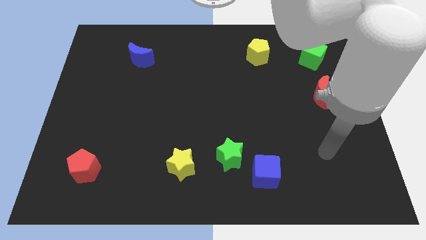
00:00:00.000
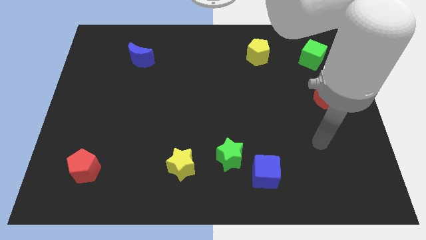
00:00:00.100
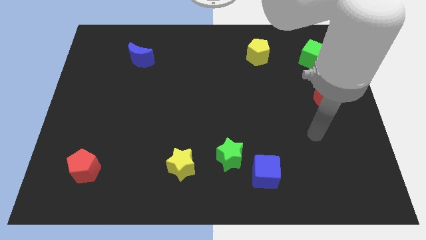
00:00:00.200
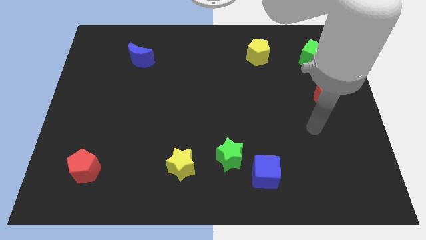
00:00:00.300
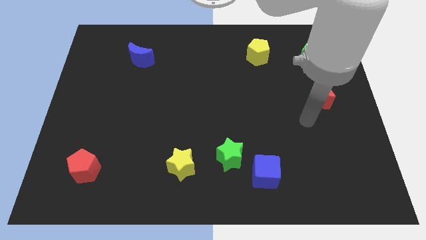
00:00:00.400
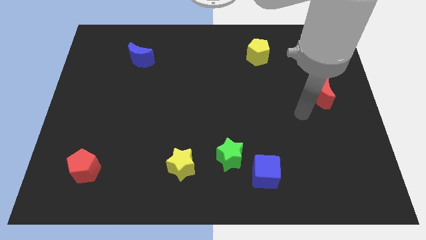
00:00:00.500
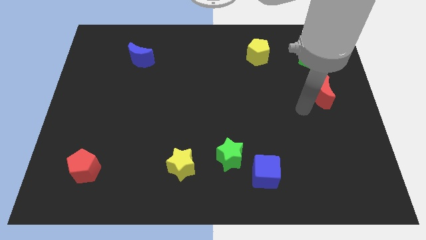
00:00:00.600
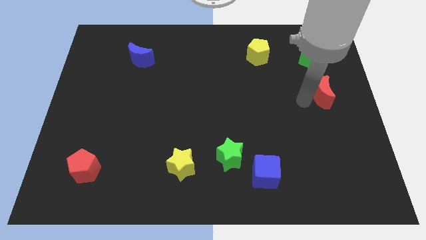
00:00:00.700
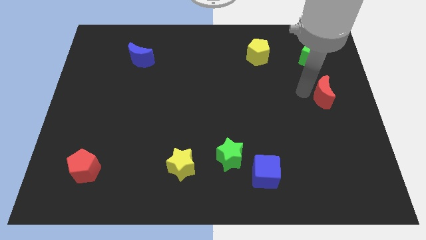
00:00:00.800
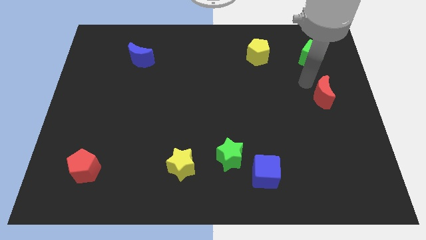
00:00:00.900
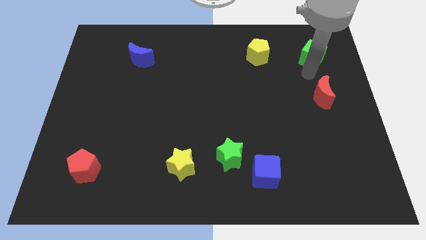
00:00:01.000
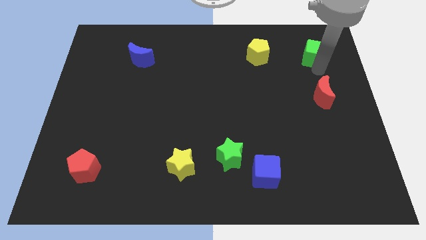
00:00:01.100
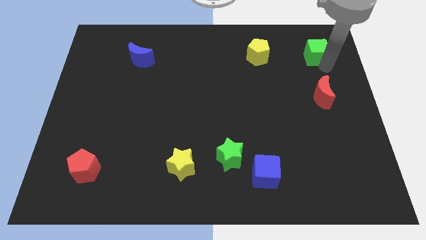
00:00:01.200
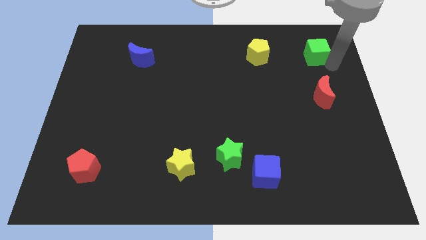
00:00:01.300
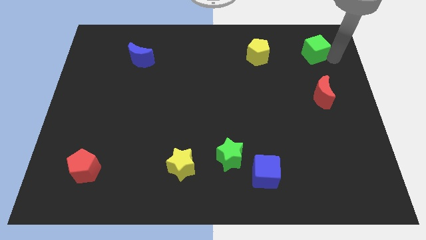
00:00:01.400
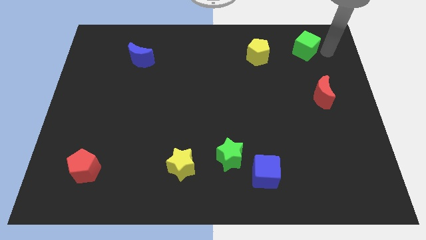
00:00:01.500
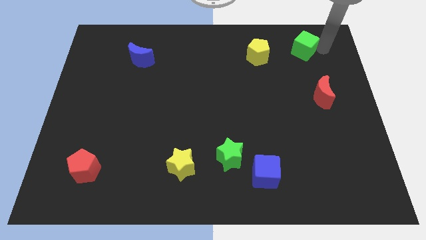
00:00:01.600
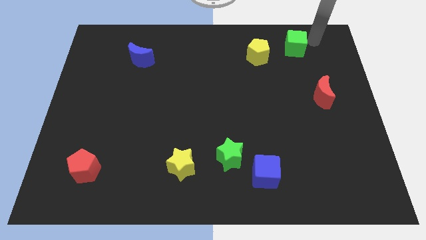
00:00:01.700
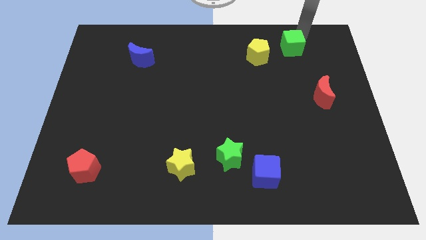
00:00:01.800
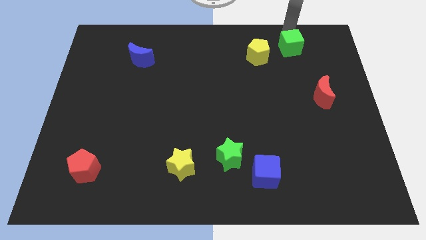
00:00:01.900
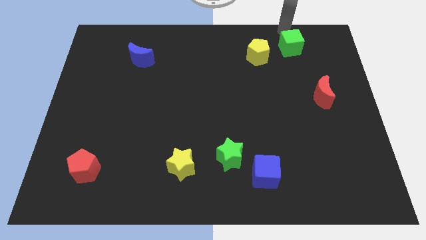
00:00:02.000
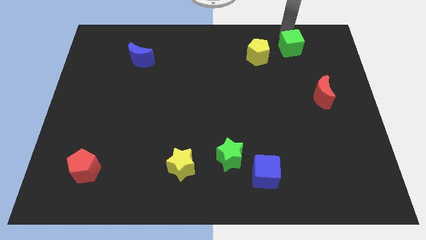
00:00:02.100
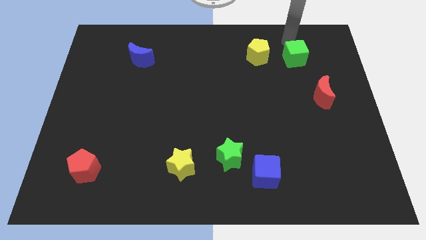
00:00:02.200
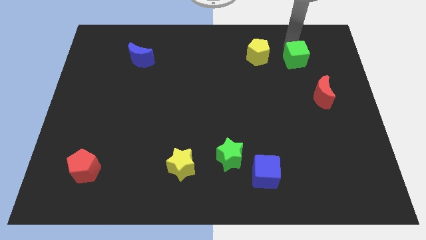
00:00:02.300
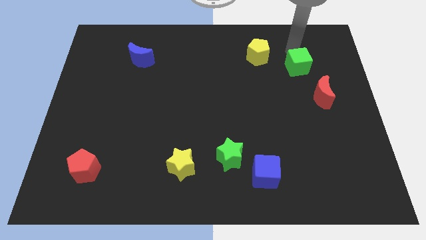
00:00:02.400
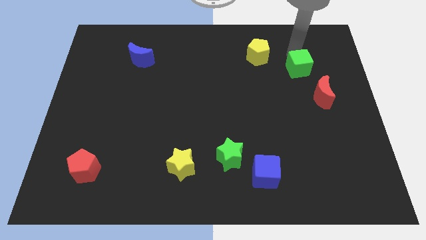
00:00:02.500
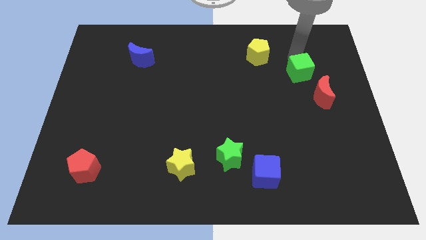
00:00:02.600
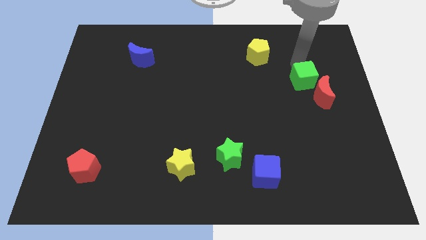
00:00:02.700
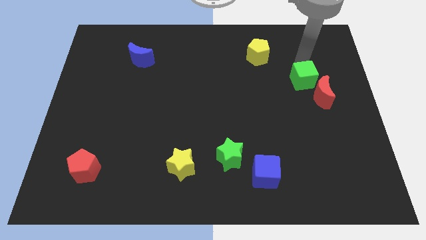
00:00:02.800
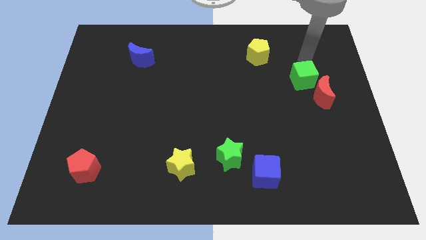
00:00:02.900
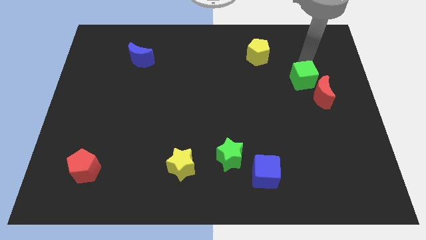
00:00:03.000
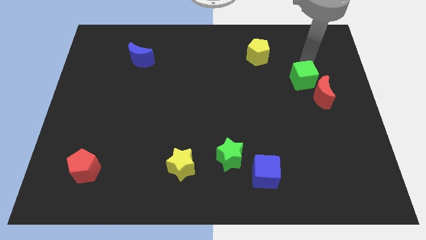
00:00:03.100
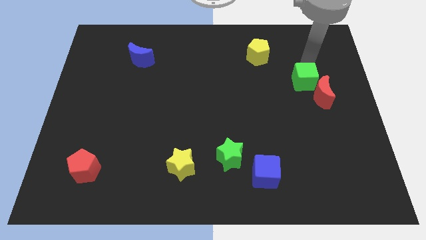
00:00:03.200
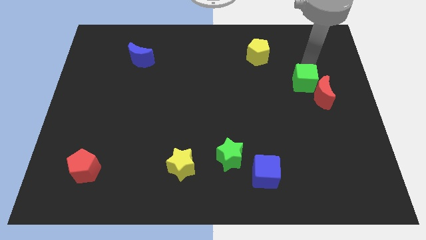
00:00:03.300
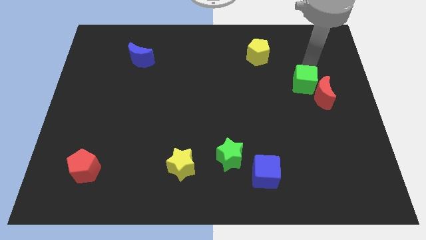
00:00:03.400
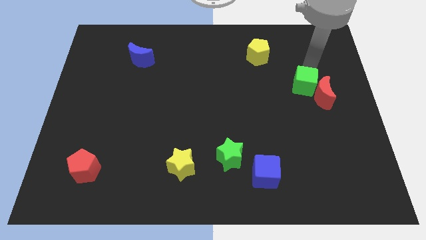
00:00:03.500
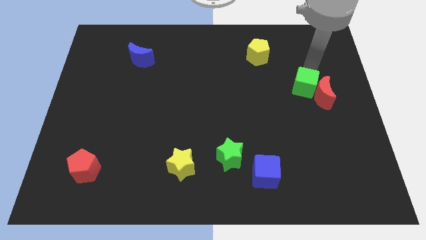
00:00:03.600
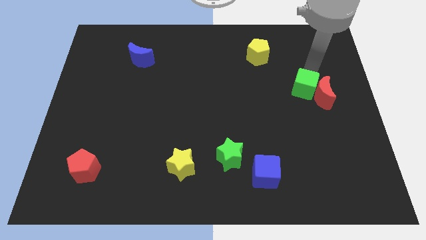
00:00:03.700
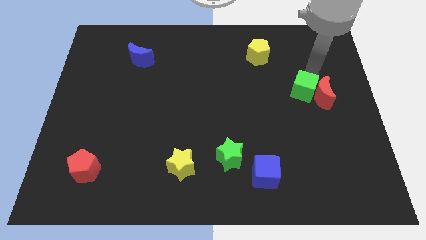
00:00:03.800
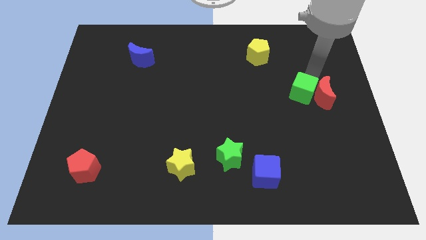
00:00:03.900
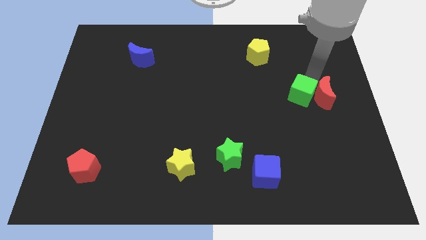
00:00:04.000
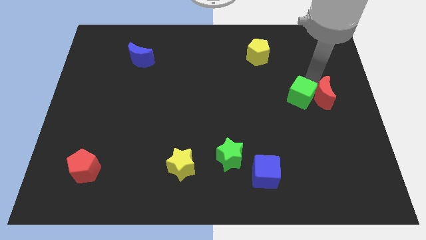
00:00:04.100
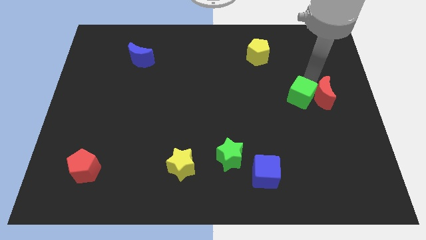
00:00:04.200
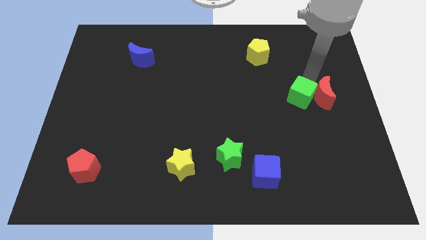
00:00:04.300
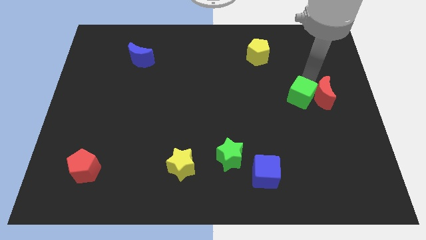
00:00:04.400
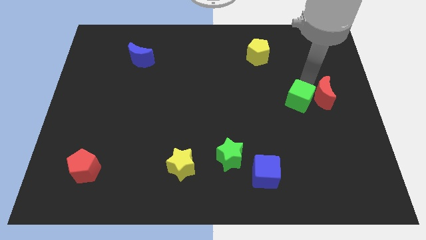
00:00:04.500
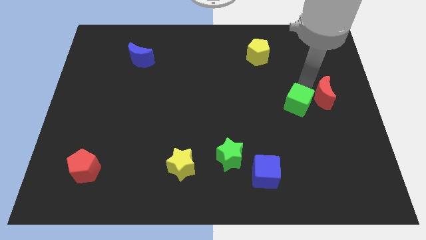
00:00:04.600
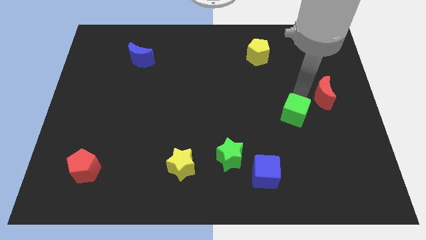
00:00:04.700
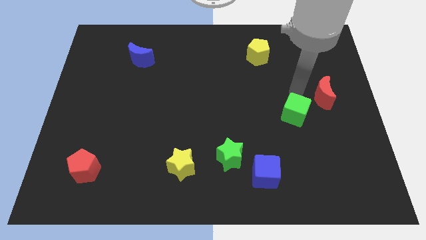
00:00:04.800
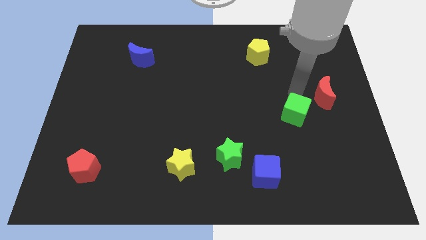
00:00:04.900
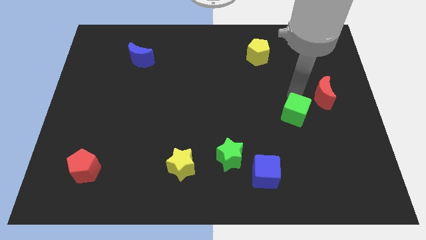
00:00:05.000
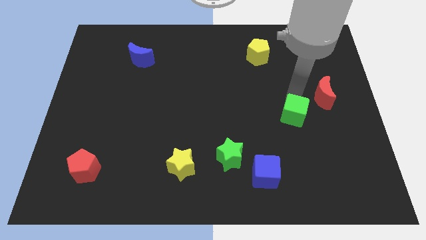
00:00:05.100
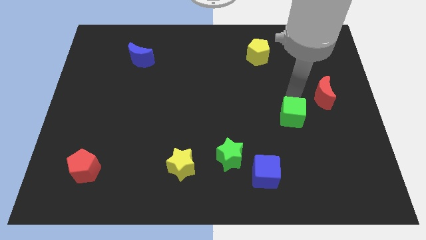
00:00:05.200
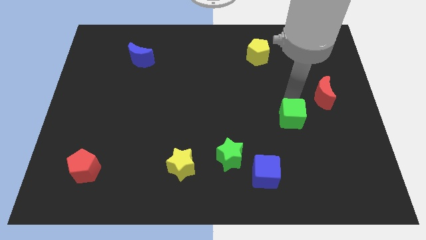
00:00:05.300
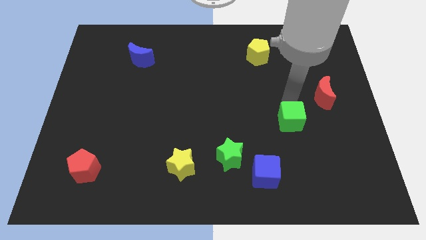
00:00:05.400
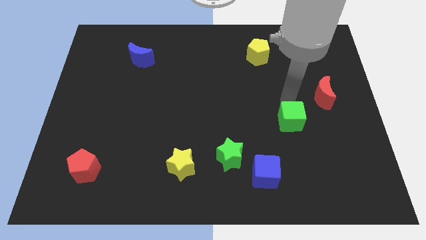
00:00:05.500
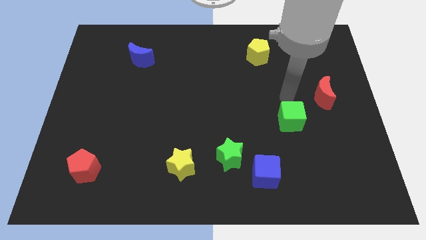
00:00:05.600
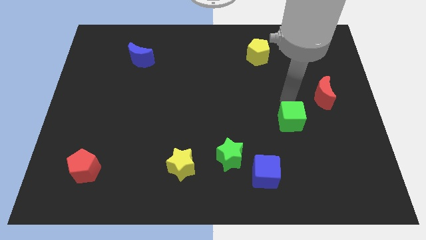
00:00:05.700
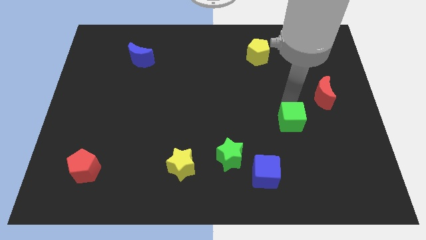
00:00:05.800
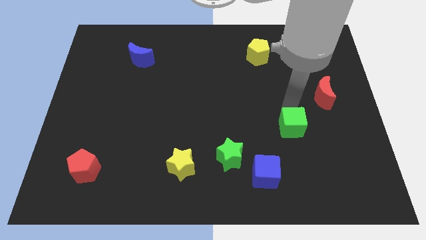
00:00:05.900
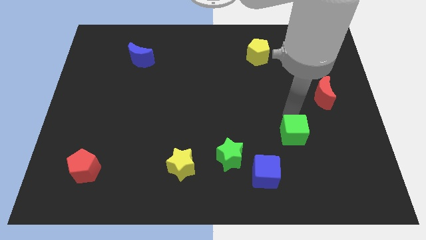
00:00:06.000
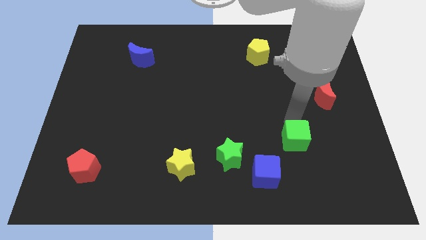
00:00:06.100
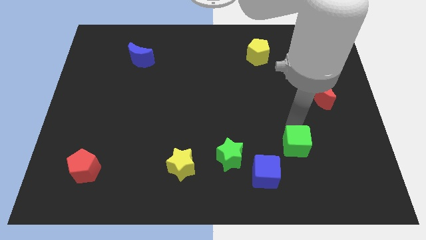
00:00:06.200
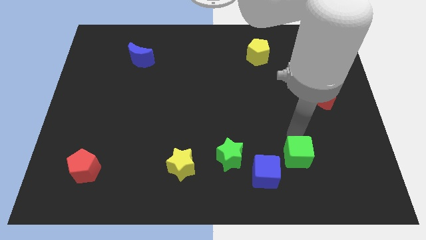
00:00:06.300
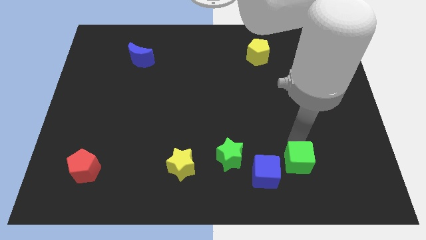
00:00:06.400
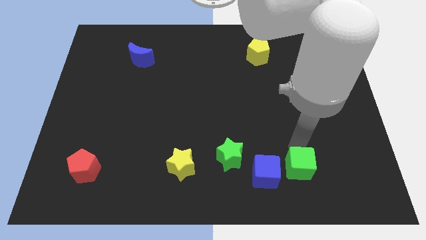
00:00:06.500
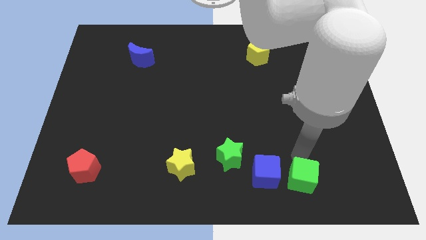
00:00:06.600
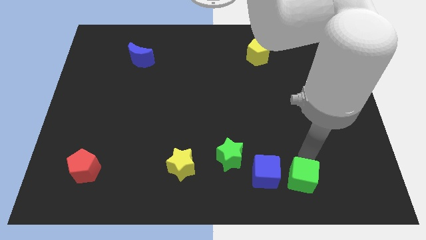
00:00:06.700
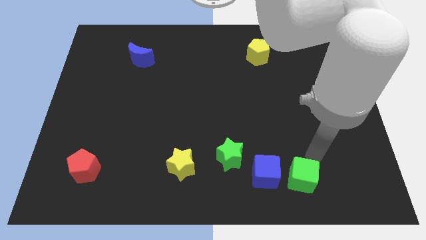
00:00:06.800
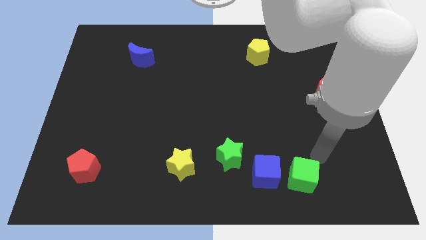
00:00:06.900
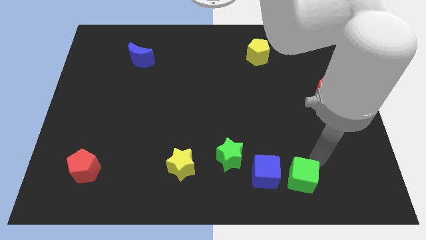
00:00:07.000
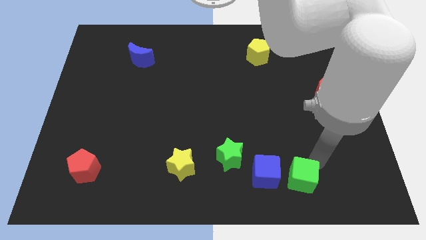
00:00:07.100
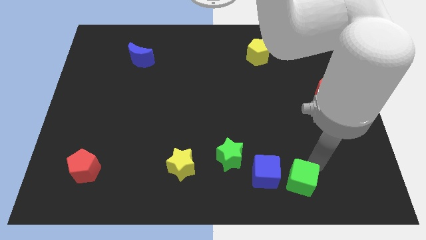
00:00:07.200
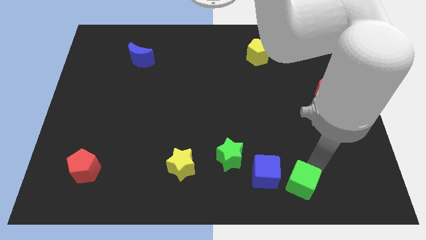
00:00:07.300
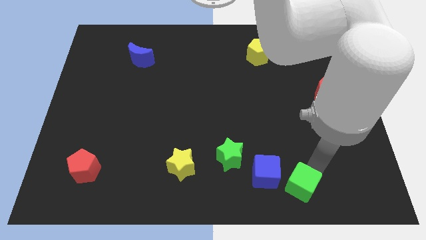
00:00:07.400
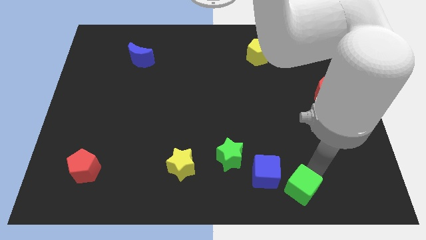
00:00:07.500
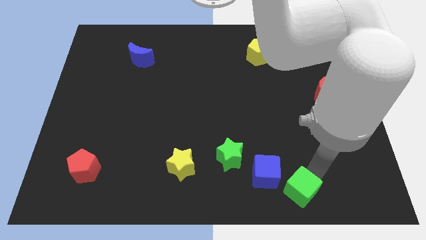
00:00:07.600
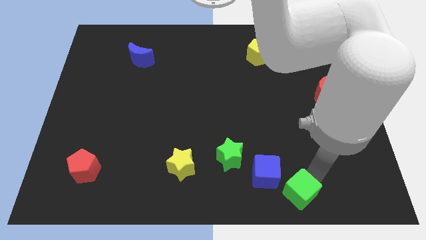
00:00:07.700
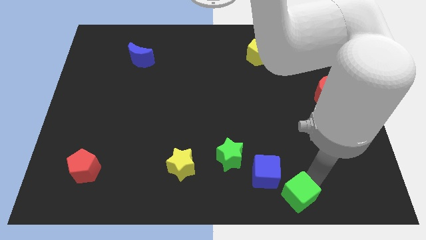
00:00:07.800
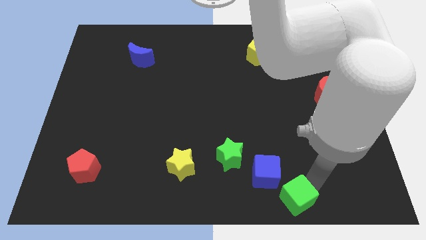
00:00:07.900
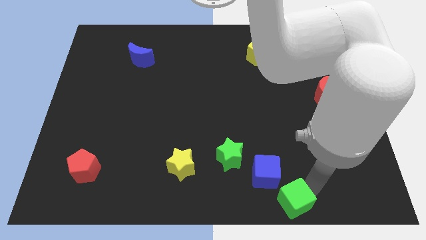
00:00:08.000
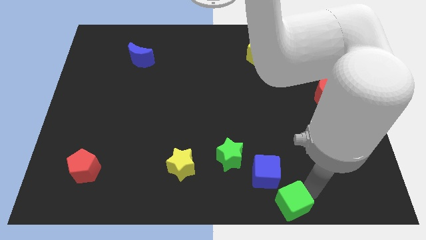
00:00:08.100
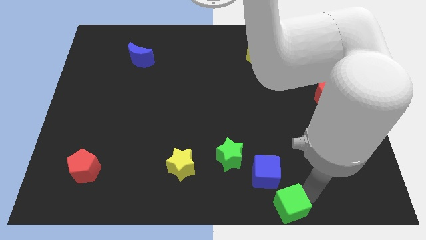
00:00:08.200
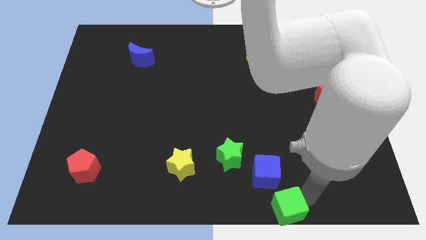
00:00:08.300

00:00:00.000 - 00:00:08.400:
push the green cube to the bottom side
